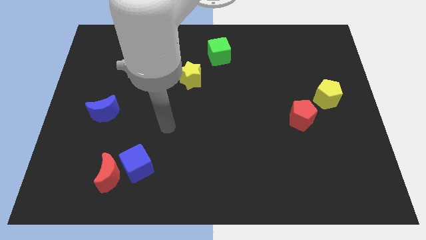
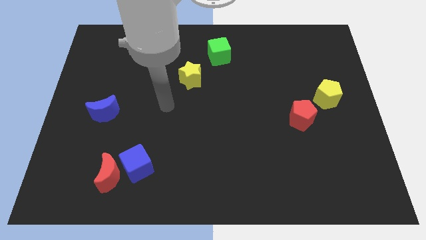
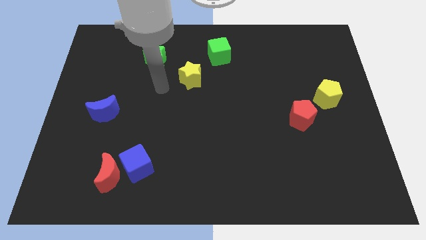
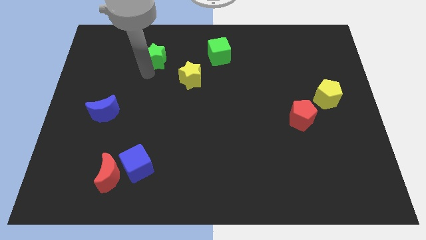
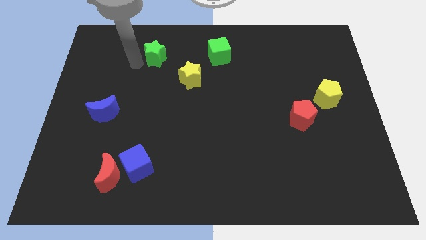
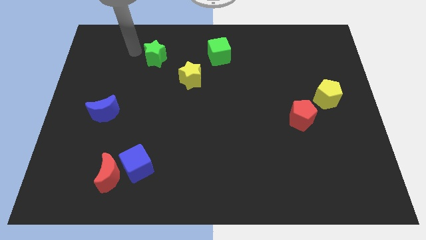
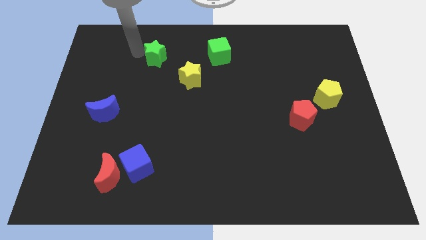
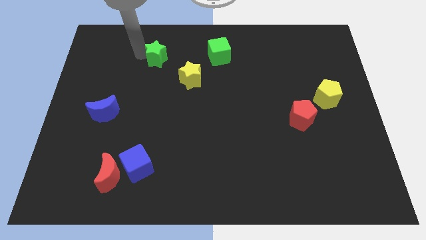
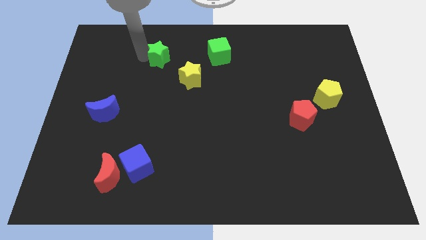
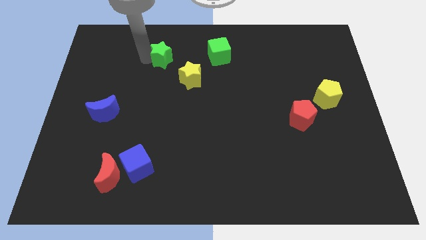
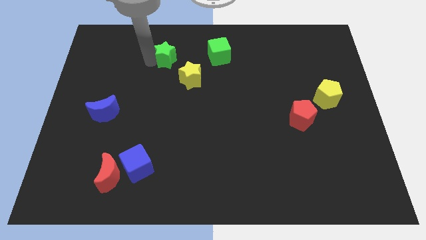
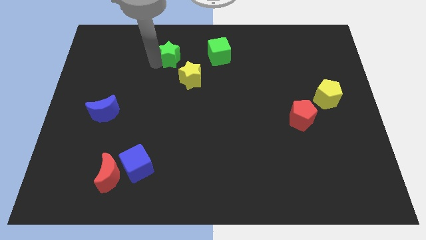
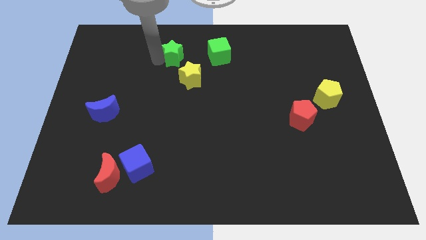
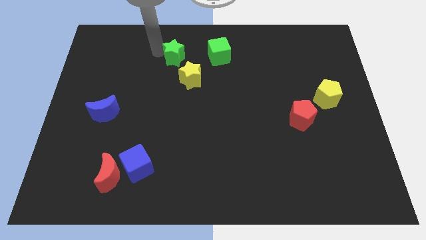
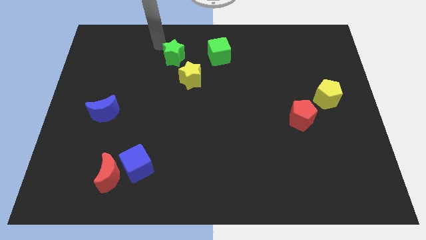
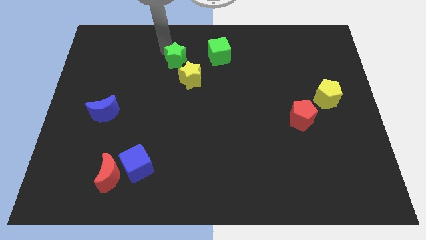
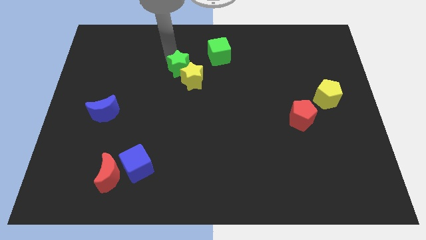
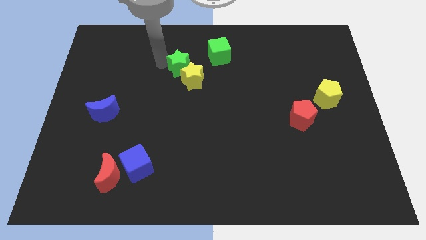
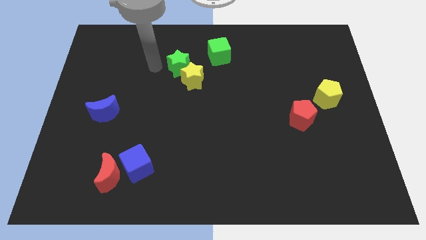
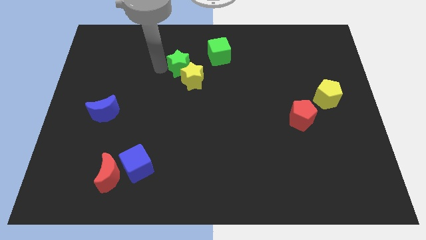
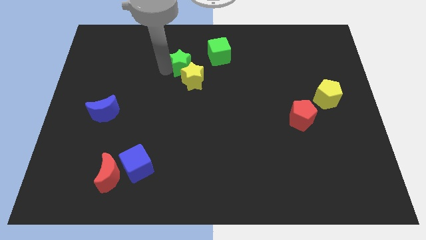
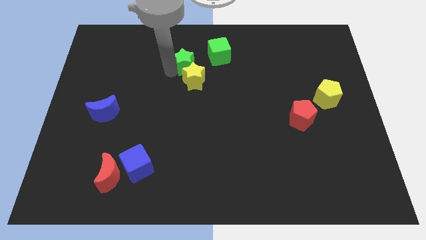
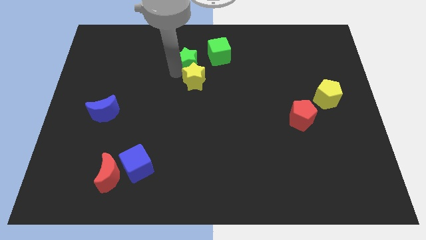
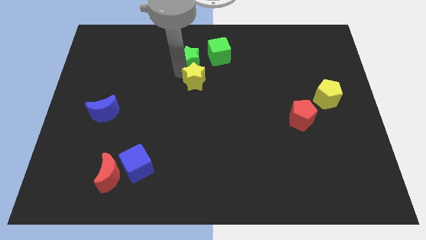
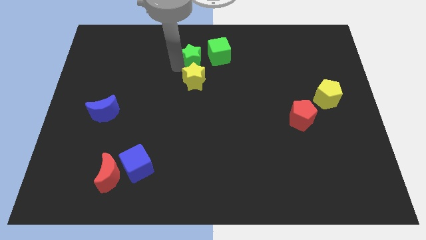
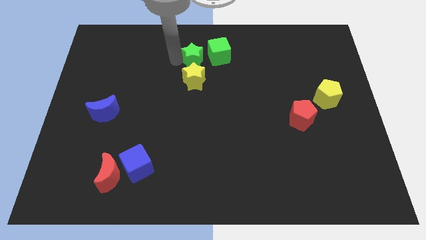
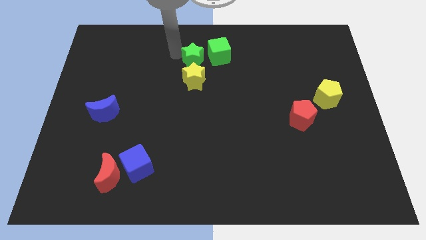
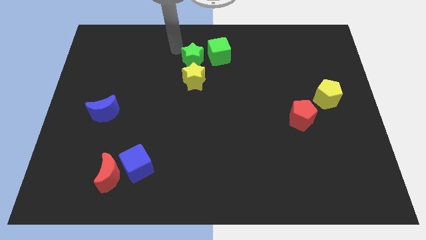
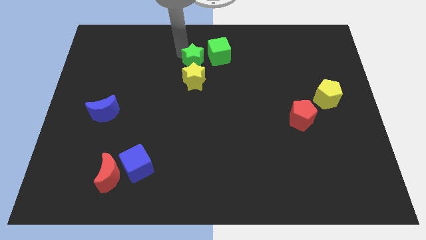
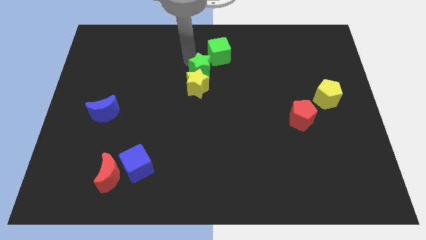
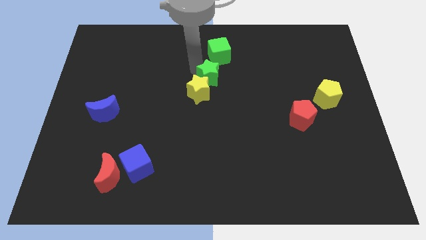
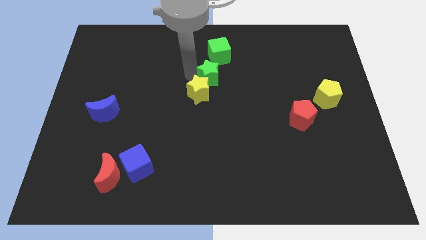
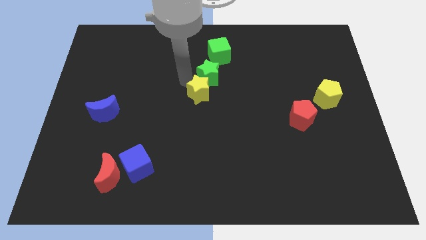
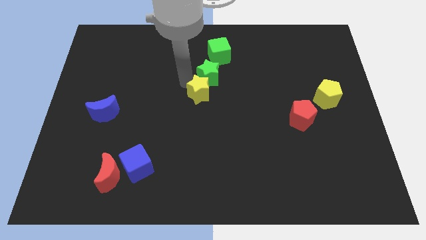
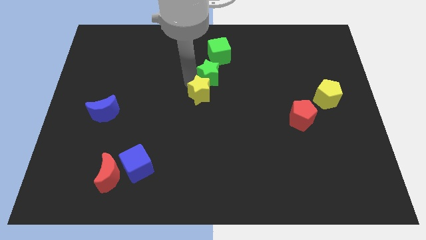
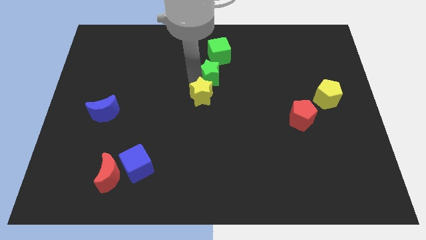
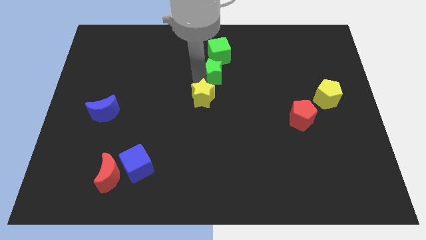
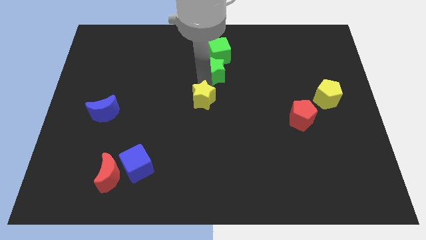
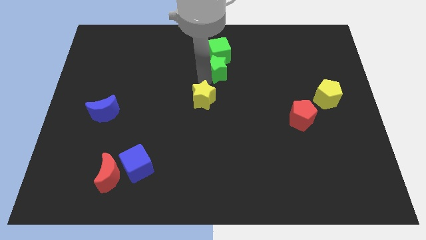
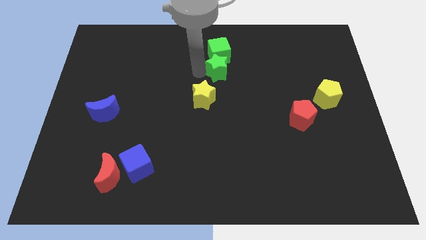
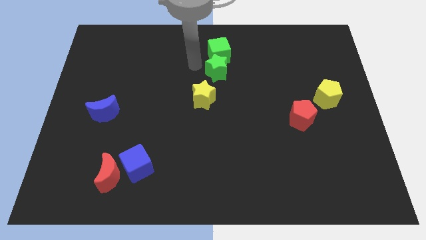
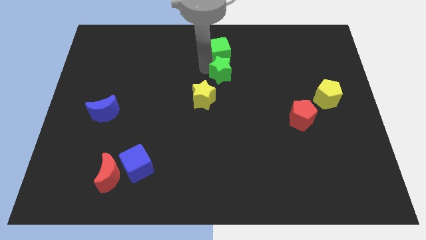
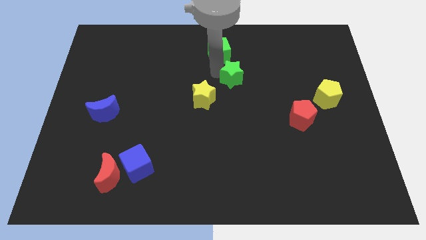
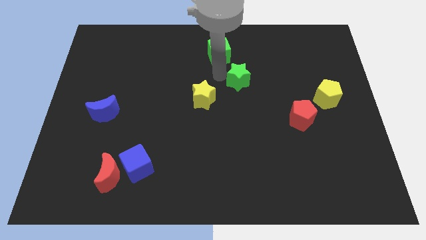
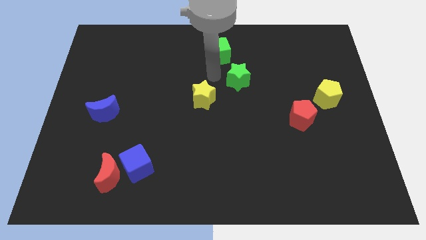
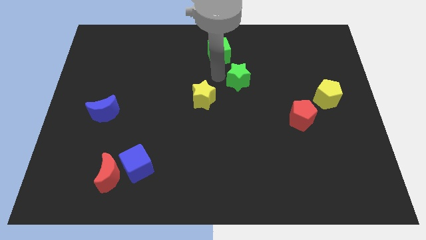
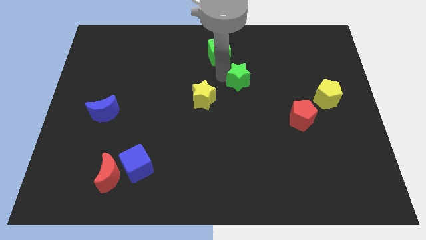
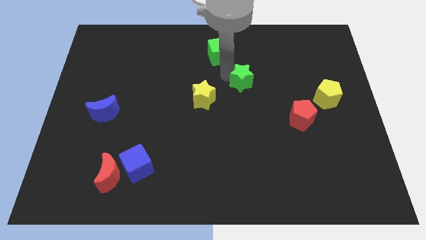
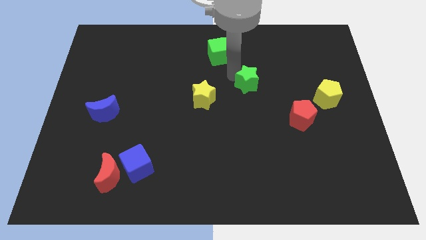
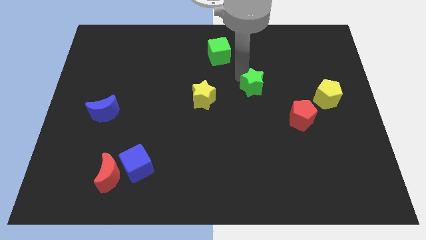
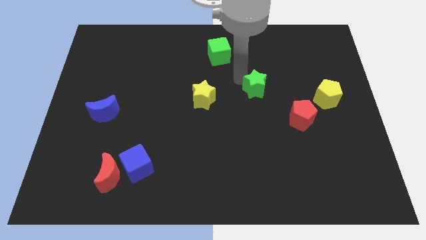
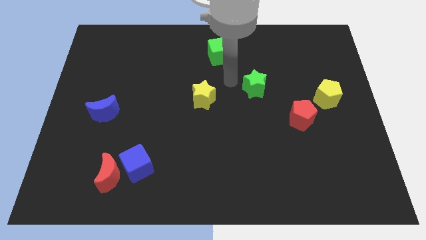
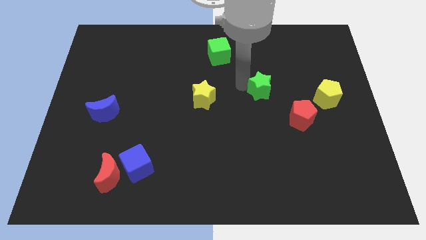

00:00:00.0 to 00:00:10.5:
move the green star to the left of the yellow pentagon

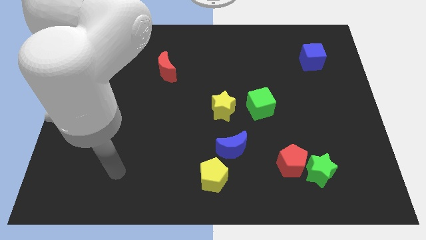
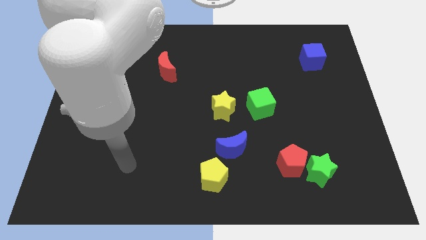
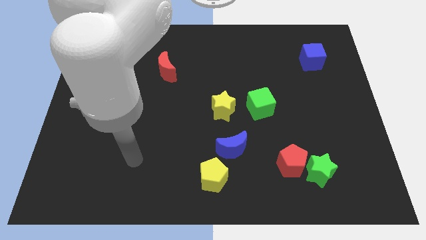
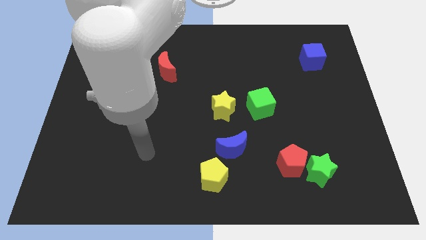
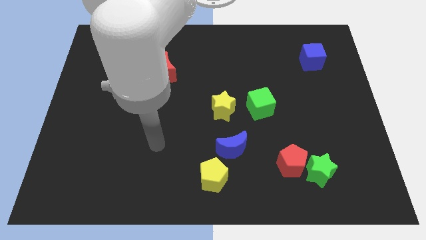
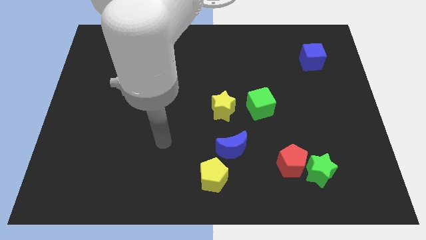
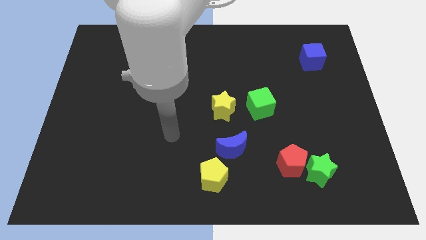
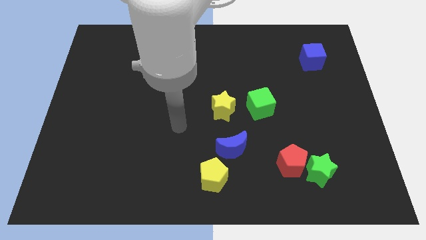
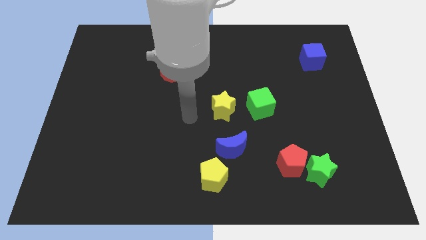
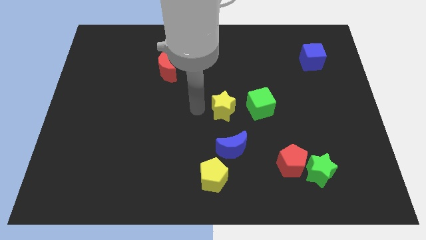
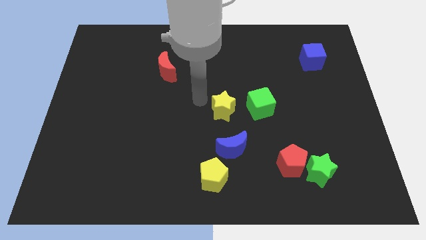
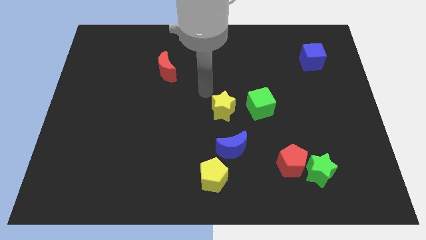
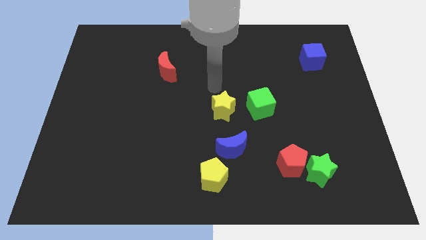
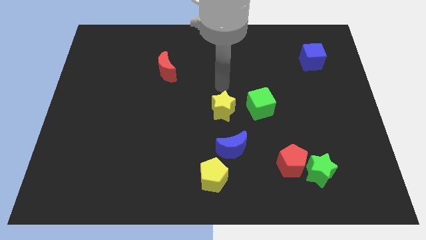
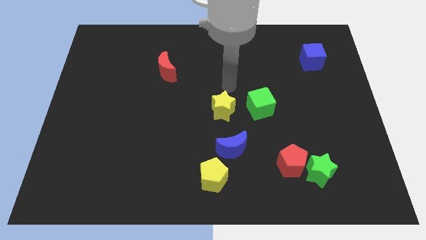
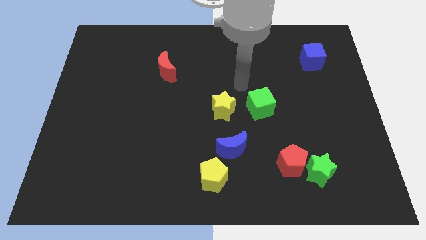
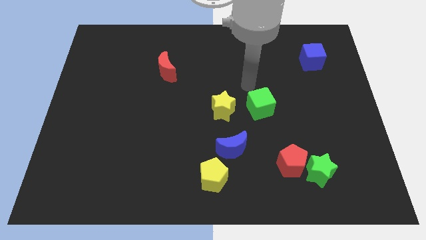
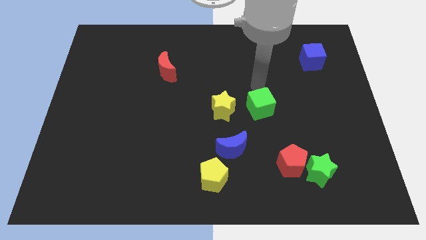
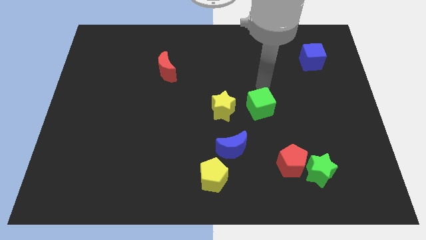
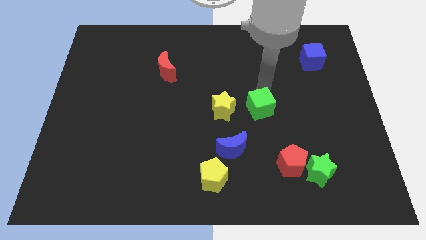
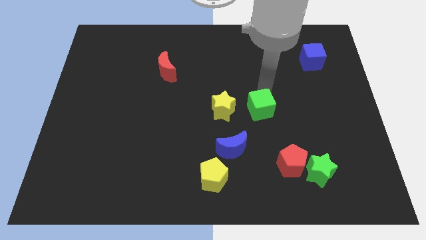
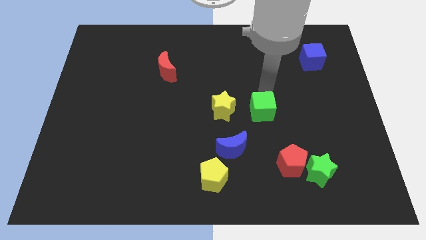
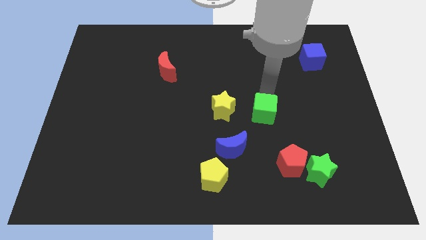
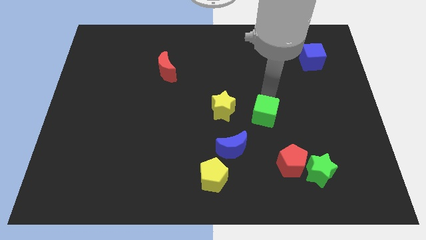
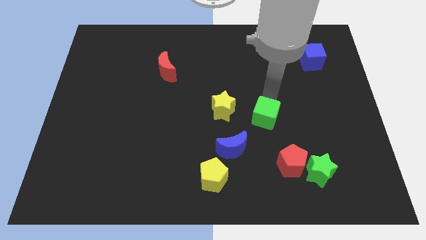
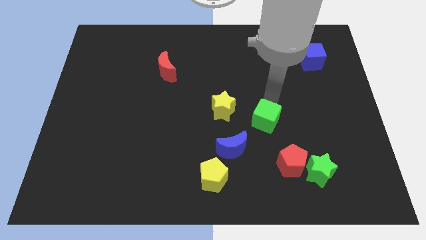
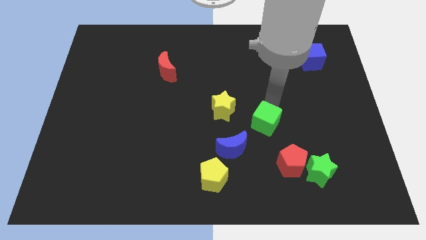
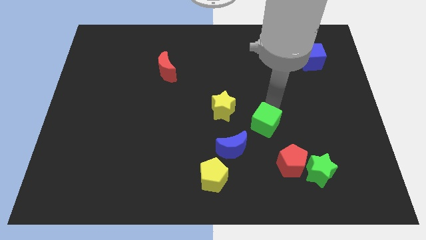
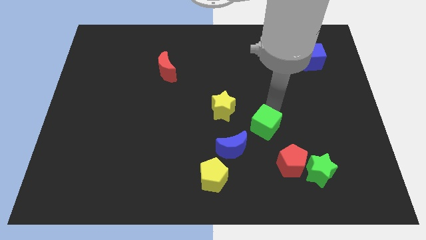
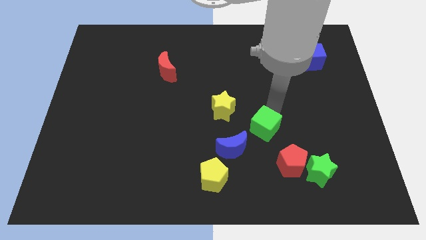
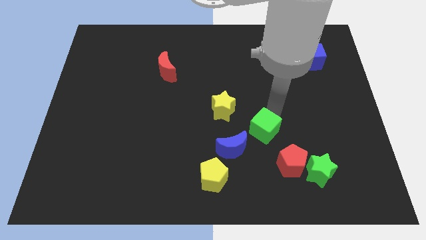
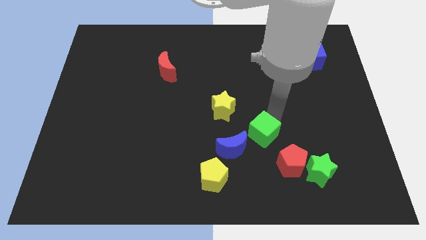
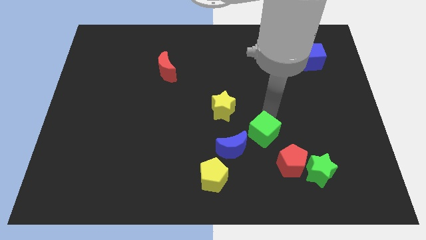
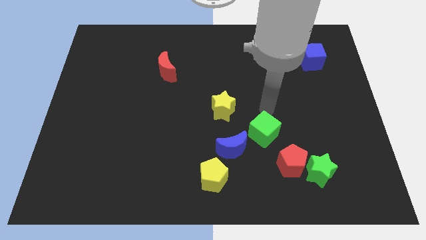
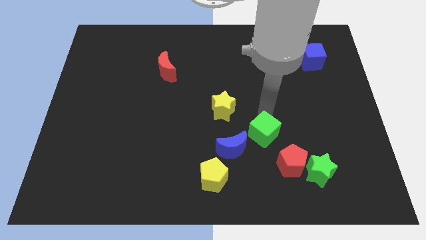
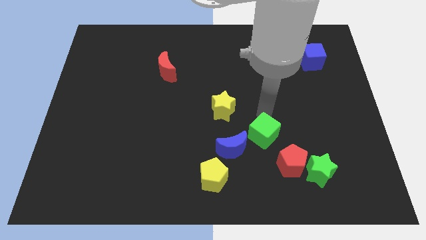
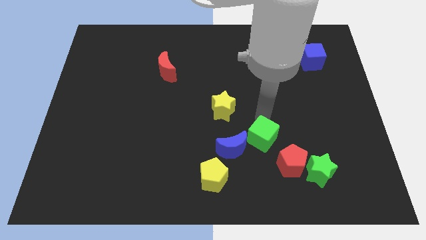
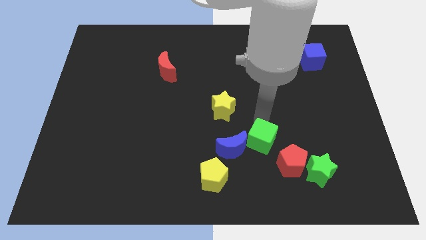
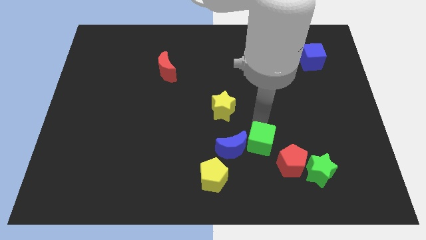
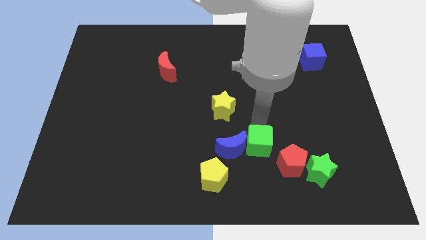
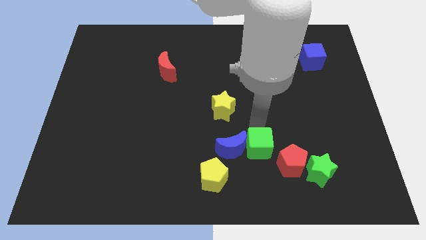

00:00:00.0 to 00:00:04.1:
put the green cube to the bottom right side of the blue moon
